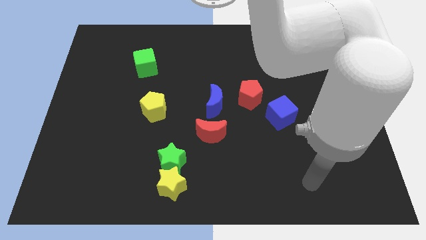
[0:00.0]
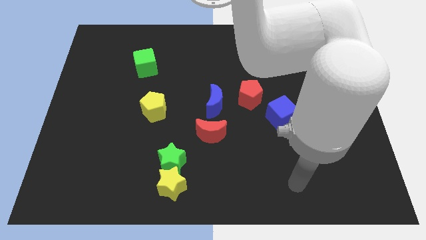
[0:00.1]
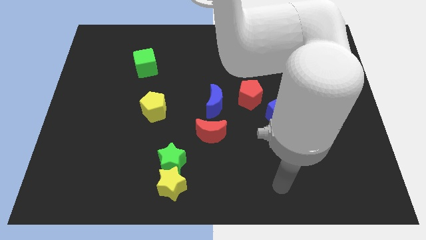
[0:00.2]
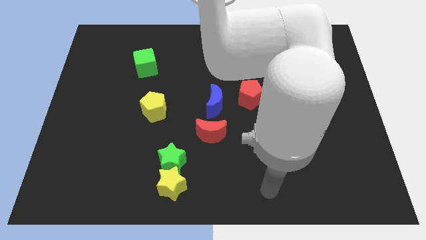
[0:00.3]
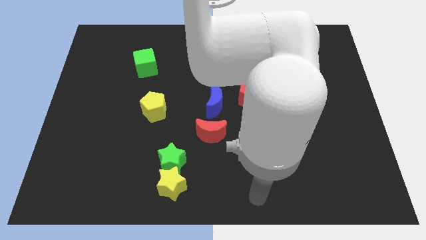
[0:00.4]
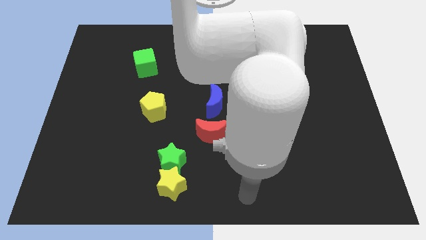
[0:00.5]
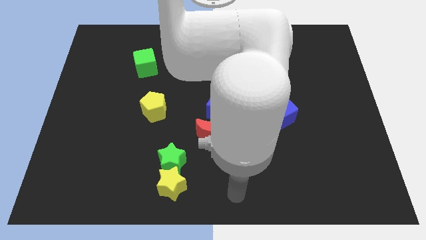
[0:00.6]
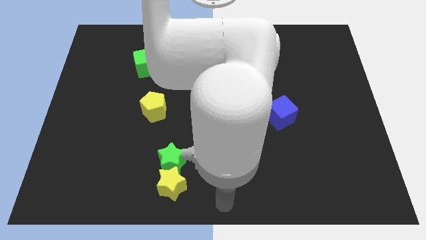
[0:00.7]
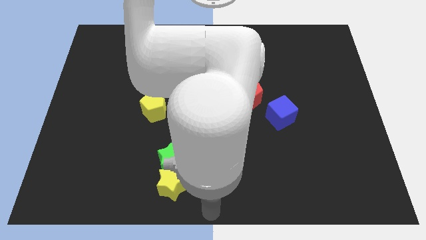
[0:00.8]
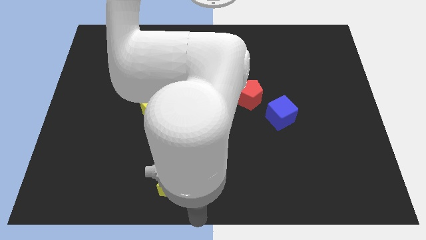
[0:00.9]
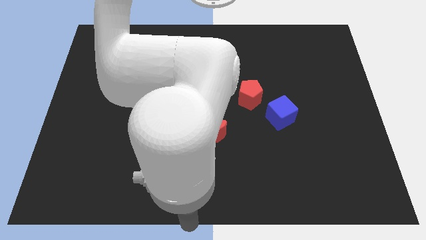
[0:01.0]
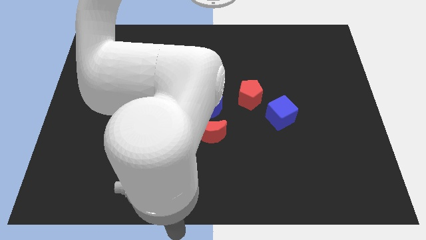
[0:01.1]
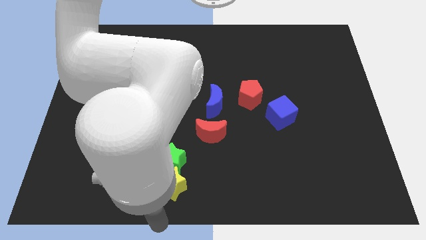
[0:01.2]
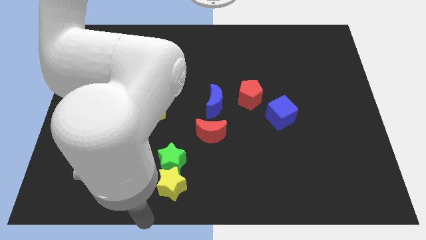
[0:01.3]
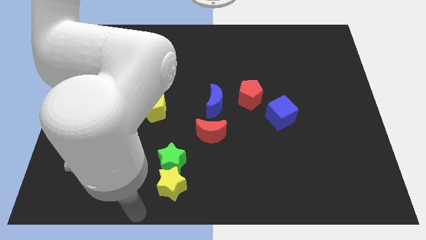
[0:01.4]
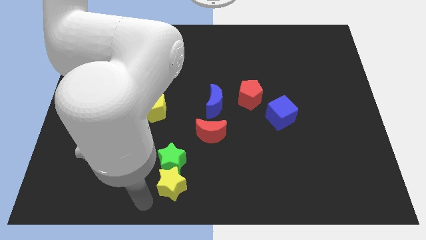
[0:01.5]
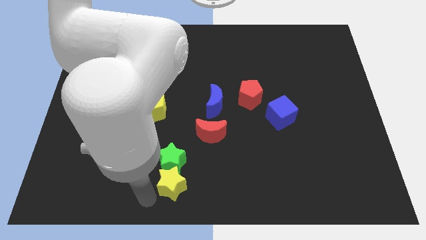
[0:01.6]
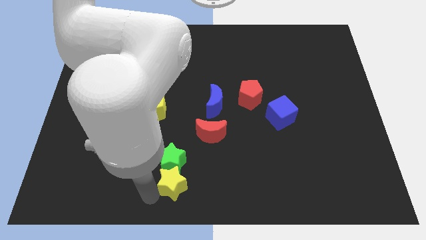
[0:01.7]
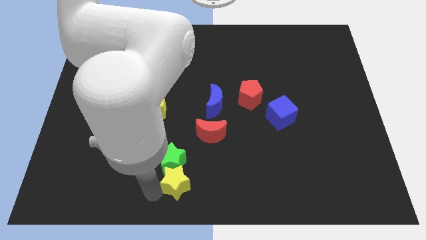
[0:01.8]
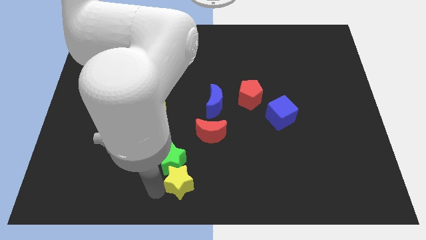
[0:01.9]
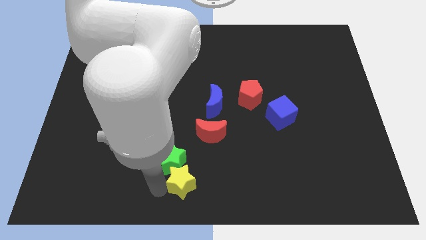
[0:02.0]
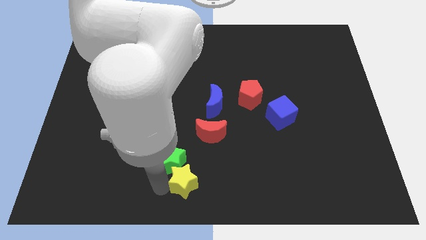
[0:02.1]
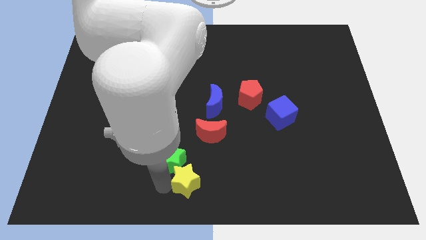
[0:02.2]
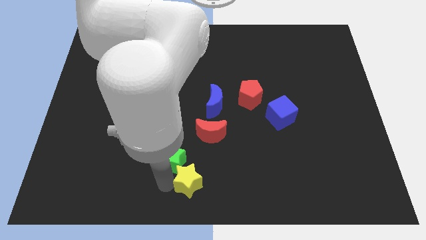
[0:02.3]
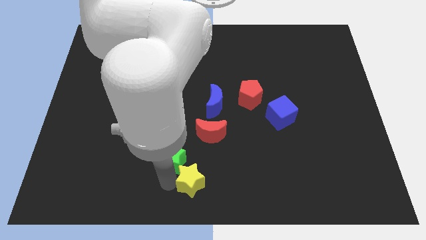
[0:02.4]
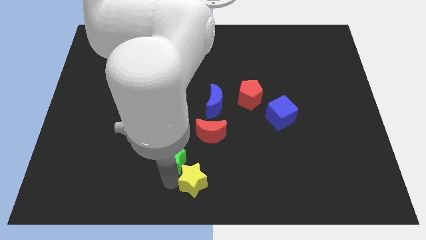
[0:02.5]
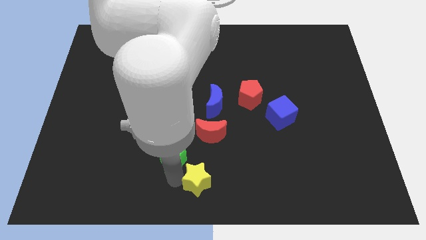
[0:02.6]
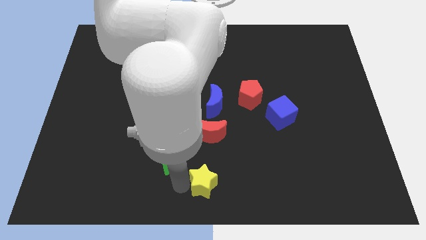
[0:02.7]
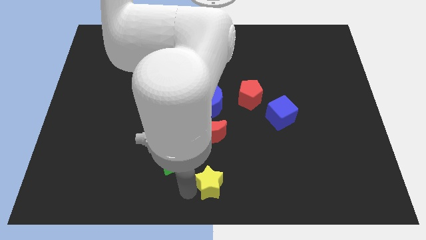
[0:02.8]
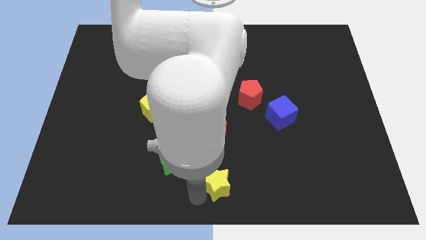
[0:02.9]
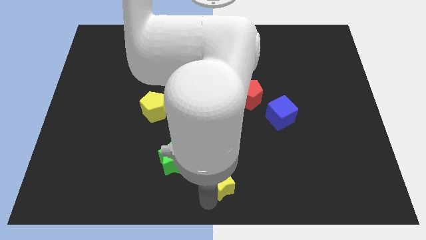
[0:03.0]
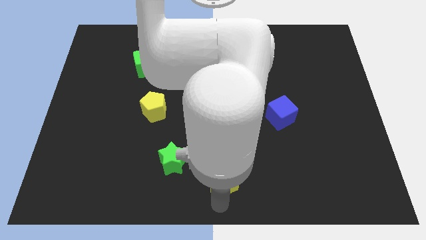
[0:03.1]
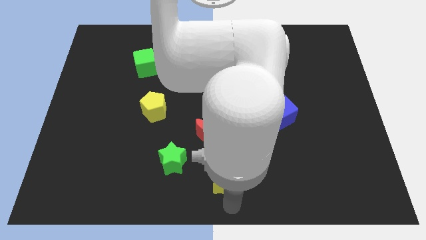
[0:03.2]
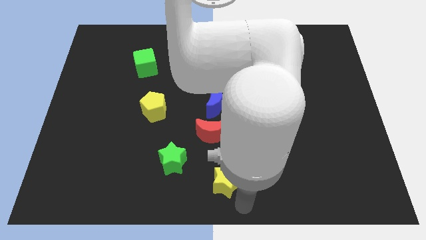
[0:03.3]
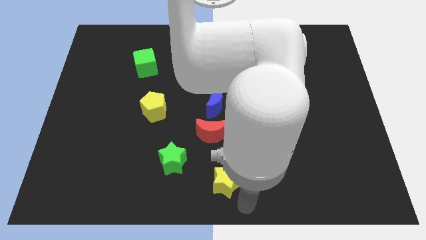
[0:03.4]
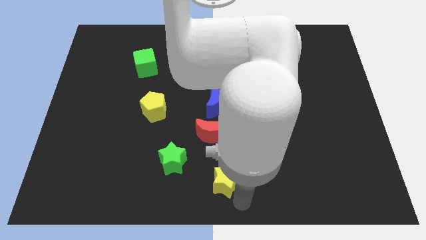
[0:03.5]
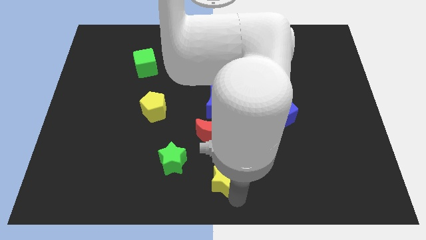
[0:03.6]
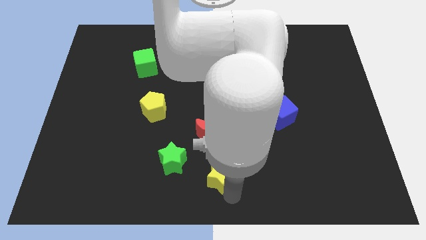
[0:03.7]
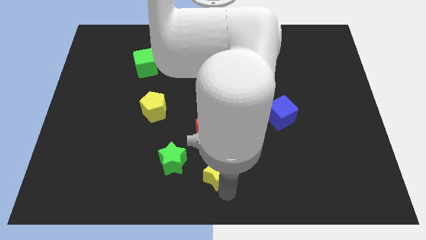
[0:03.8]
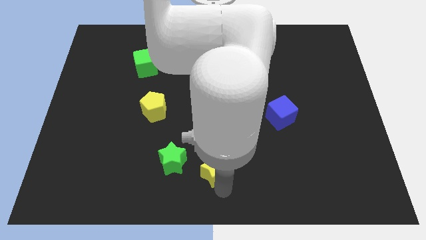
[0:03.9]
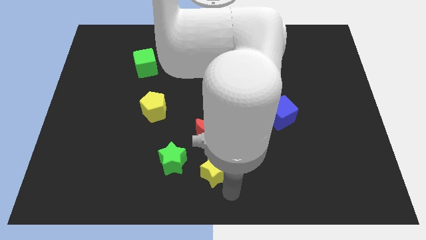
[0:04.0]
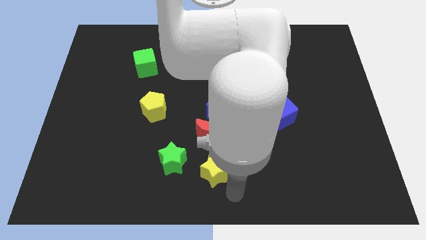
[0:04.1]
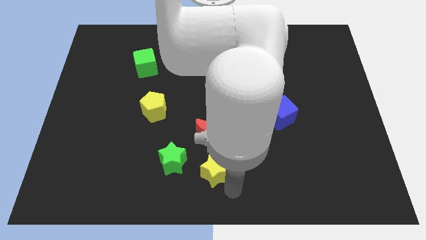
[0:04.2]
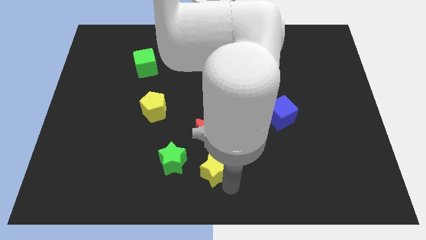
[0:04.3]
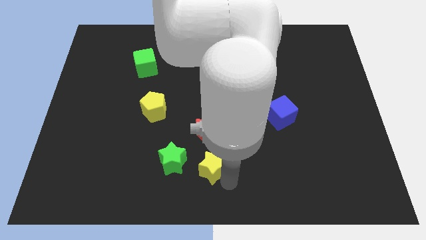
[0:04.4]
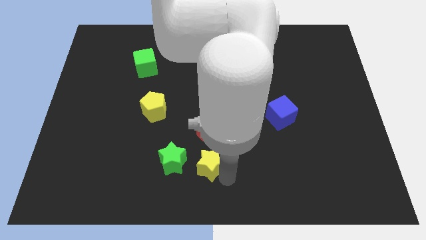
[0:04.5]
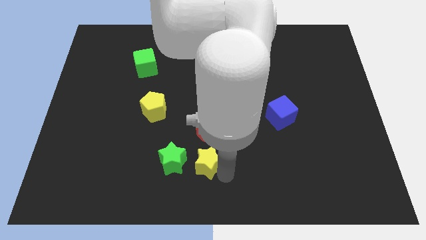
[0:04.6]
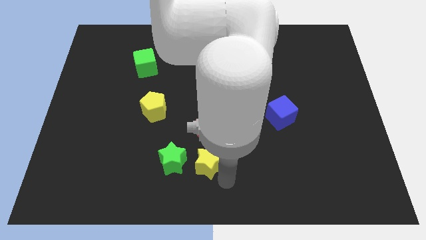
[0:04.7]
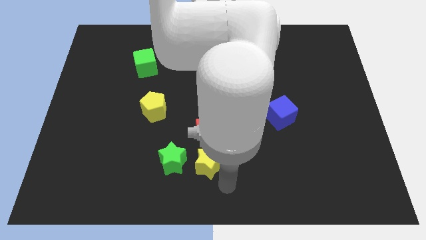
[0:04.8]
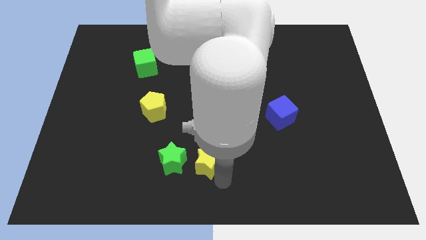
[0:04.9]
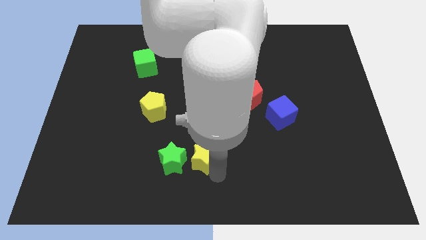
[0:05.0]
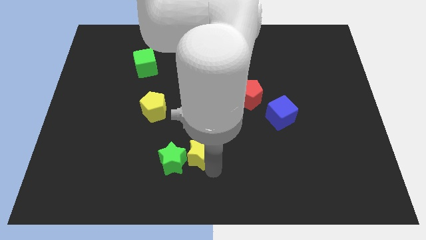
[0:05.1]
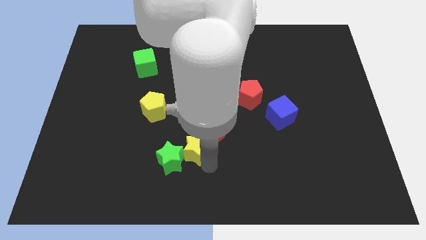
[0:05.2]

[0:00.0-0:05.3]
push the yellow star somewhat up

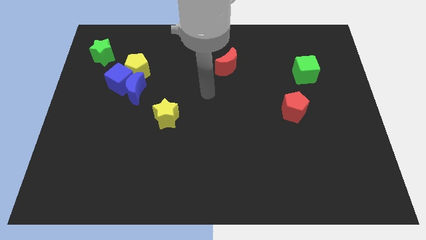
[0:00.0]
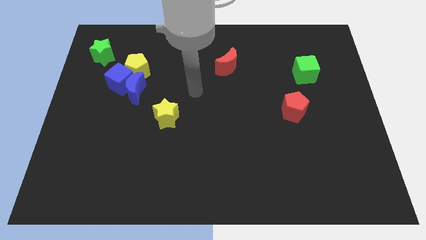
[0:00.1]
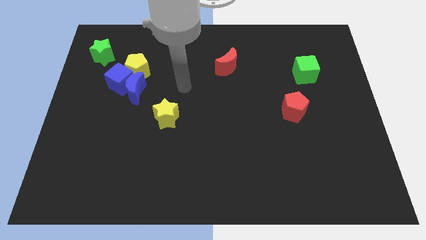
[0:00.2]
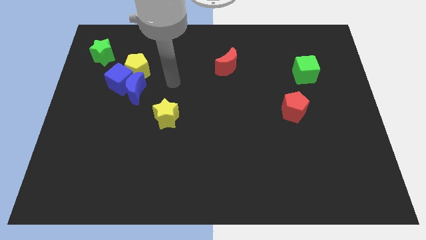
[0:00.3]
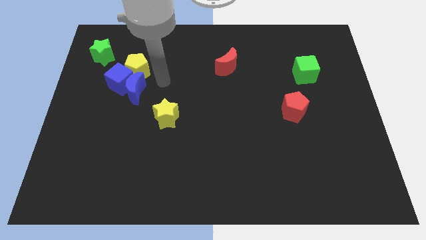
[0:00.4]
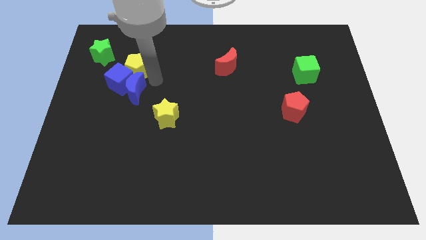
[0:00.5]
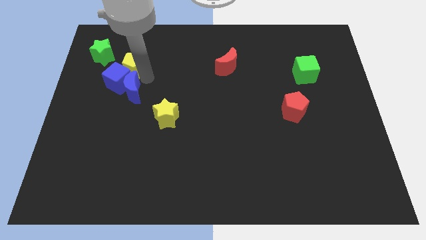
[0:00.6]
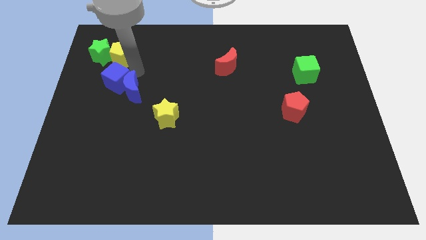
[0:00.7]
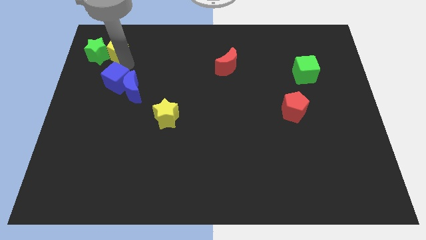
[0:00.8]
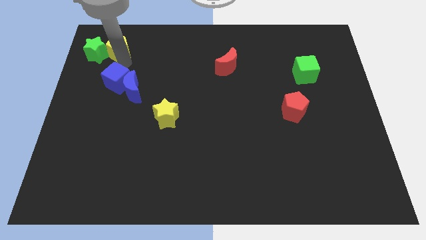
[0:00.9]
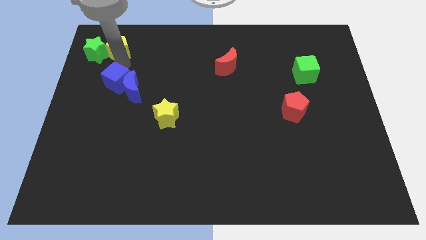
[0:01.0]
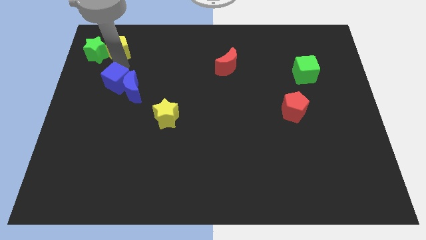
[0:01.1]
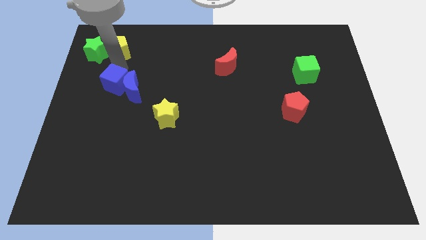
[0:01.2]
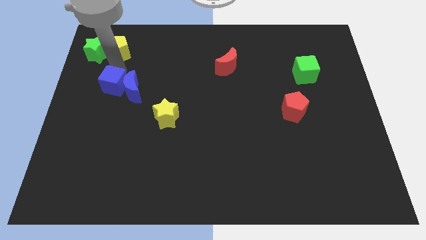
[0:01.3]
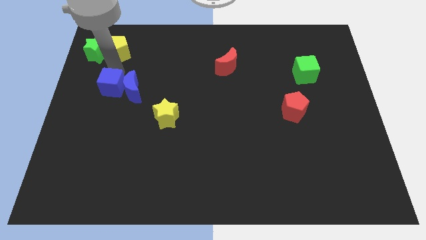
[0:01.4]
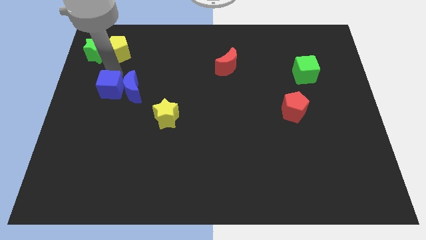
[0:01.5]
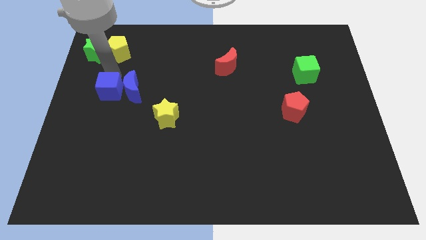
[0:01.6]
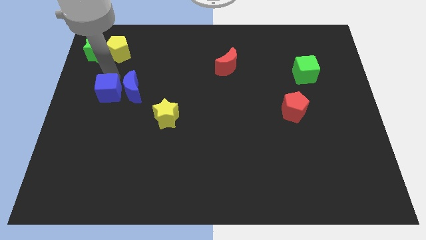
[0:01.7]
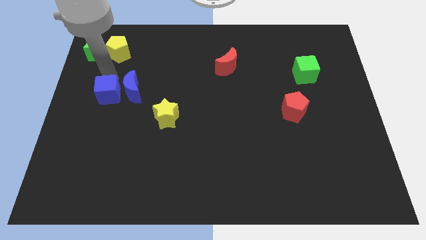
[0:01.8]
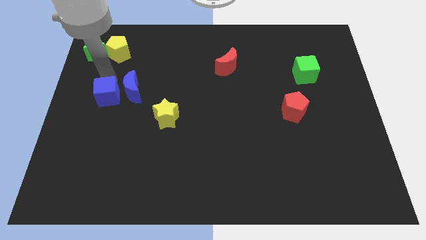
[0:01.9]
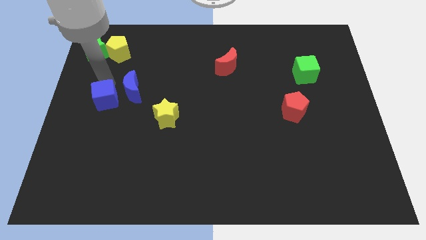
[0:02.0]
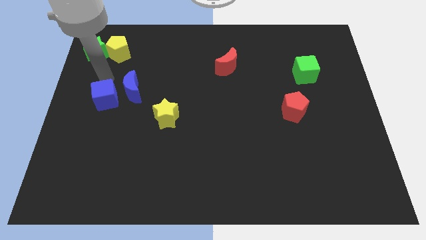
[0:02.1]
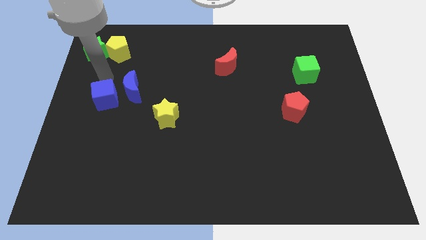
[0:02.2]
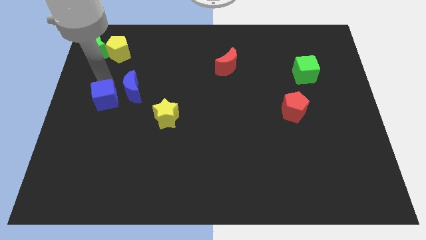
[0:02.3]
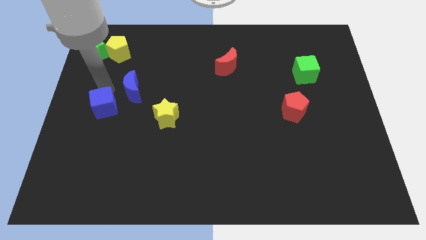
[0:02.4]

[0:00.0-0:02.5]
slide the blue cube a little down

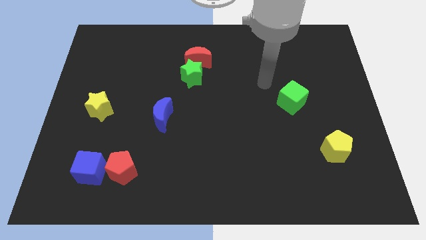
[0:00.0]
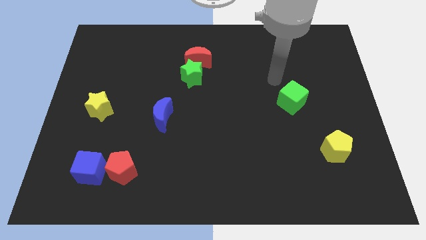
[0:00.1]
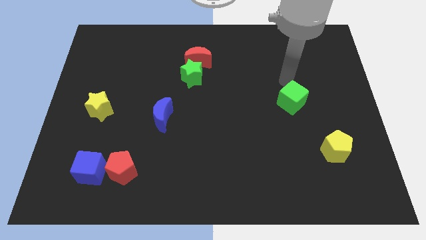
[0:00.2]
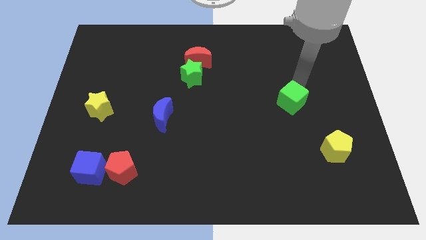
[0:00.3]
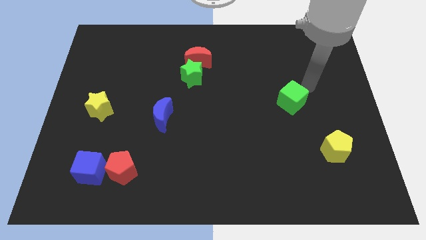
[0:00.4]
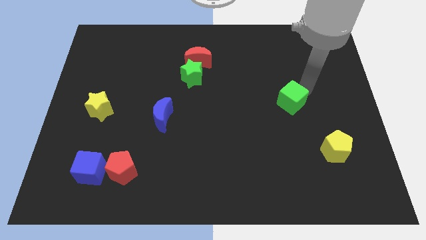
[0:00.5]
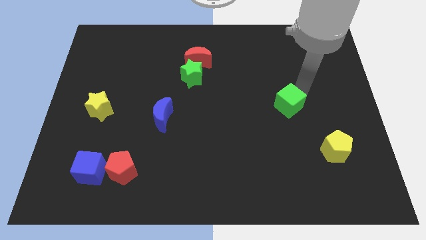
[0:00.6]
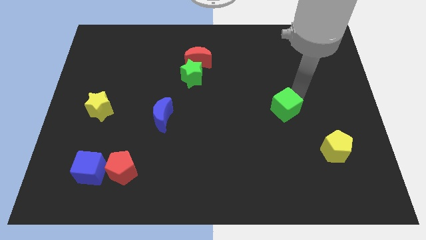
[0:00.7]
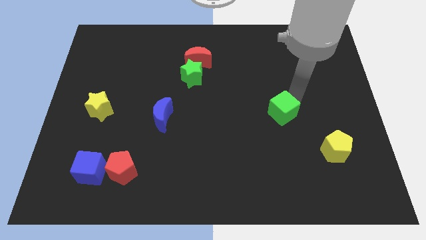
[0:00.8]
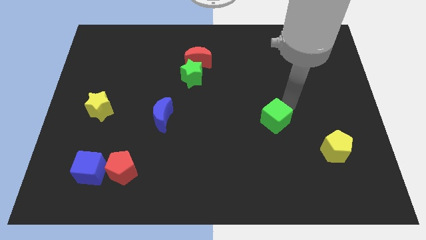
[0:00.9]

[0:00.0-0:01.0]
push the green cube a bit down and then left
